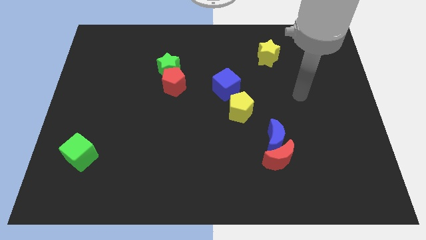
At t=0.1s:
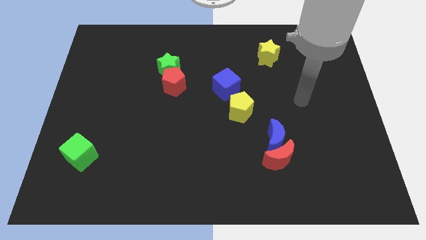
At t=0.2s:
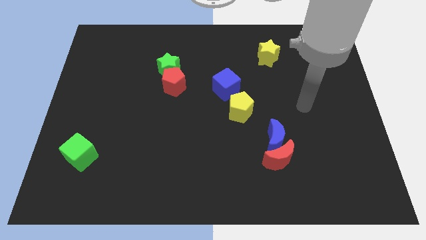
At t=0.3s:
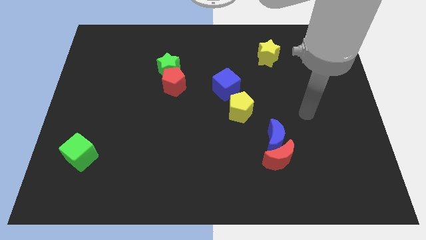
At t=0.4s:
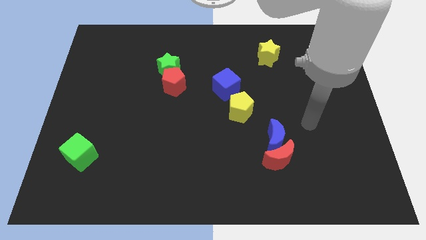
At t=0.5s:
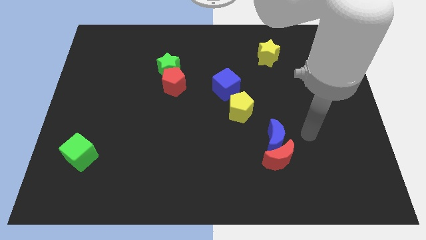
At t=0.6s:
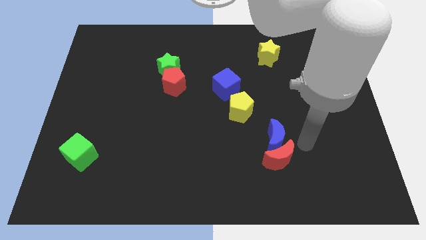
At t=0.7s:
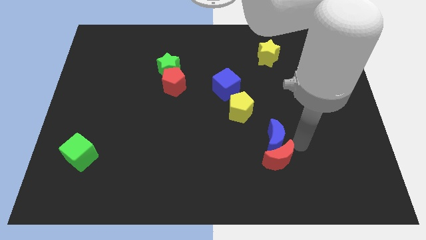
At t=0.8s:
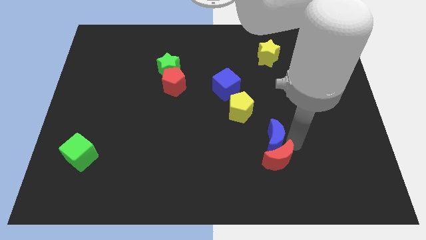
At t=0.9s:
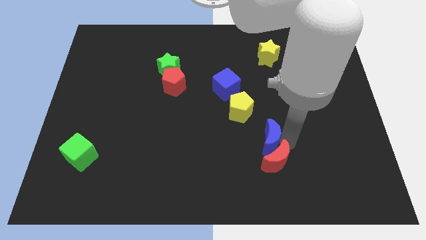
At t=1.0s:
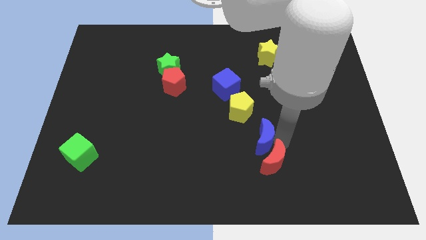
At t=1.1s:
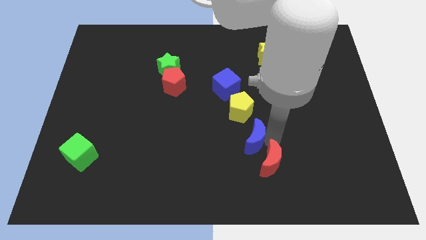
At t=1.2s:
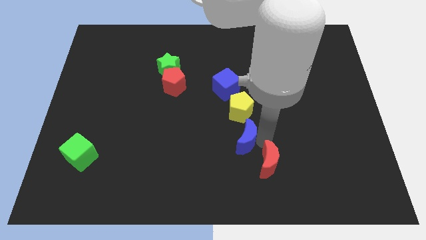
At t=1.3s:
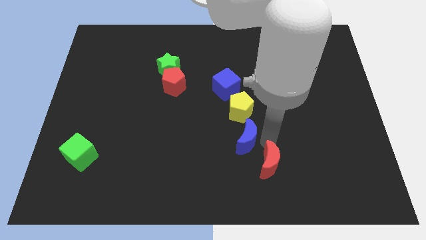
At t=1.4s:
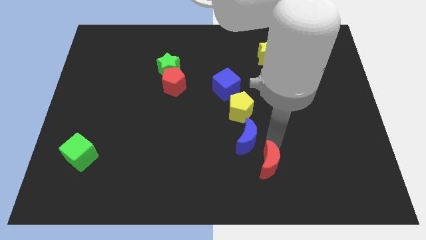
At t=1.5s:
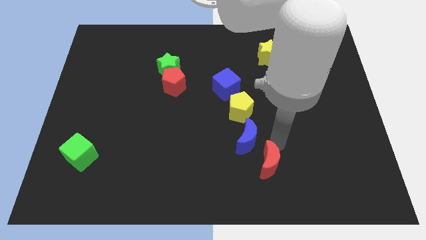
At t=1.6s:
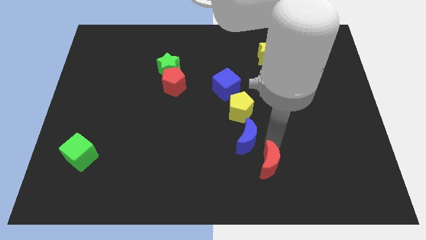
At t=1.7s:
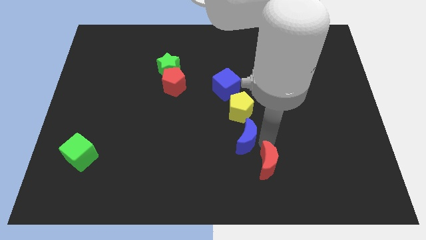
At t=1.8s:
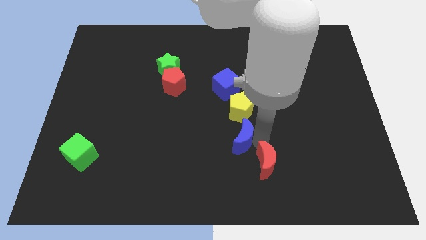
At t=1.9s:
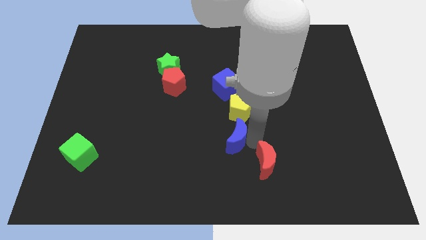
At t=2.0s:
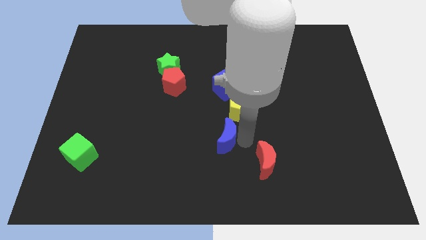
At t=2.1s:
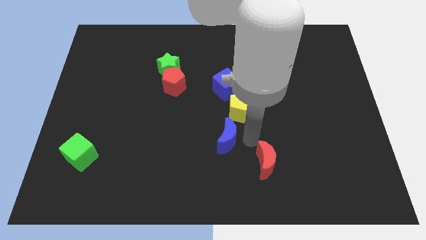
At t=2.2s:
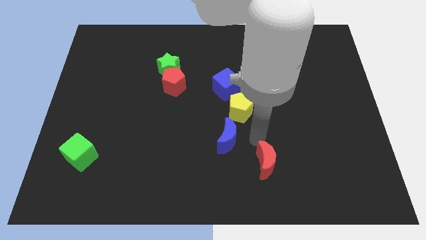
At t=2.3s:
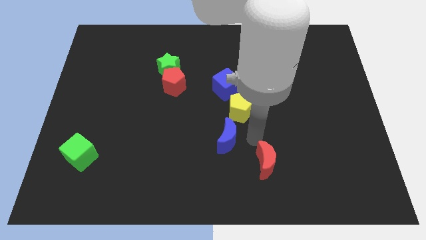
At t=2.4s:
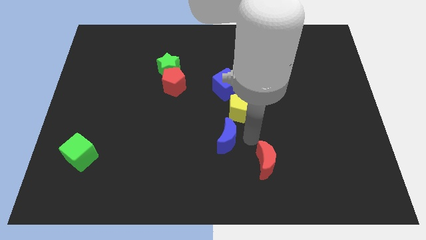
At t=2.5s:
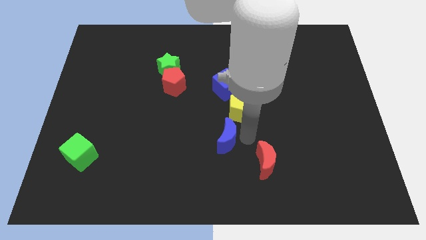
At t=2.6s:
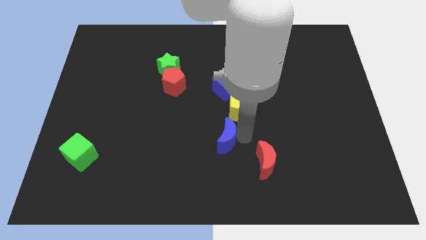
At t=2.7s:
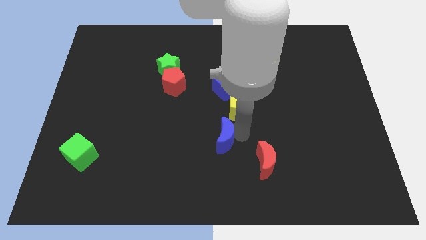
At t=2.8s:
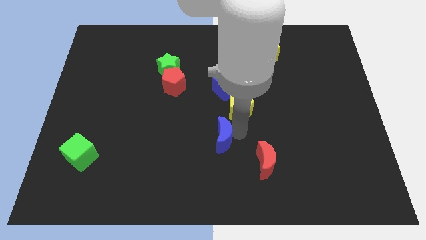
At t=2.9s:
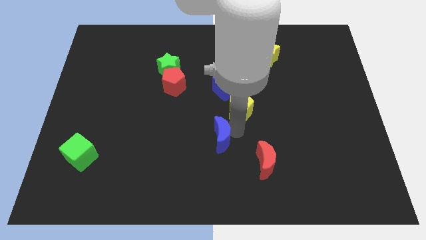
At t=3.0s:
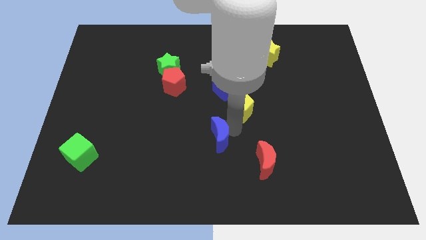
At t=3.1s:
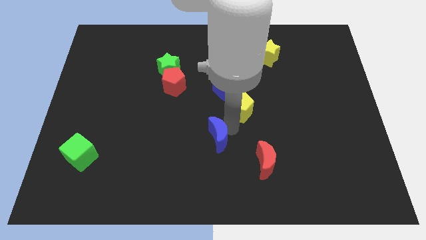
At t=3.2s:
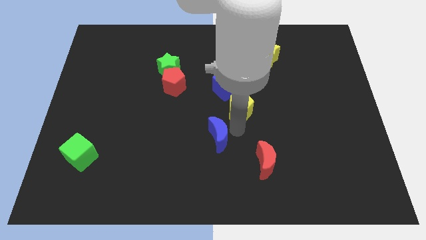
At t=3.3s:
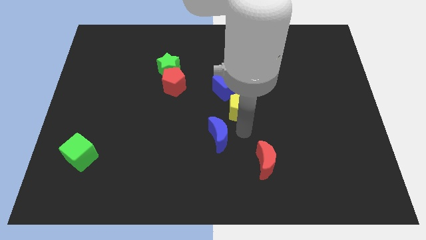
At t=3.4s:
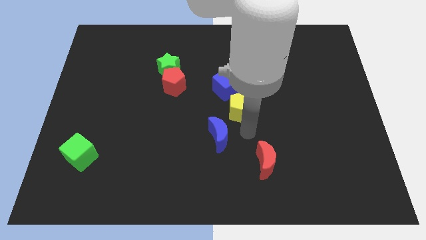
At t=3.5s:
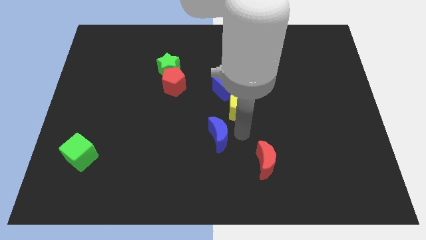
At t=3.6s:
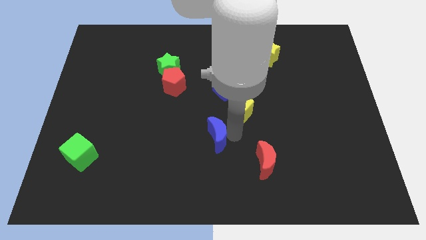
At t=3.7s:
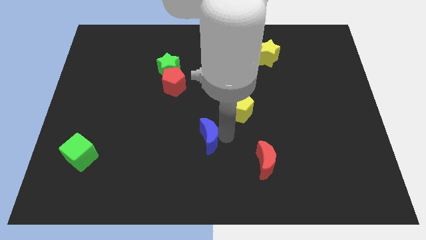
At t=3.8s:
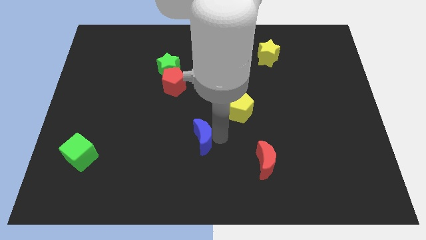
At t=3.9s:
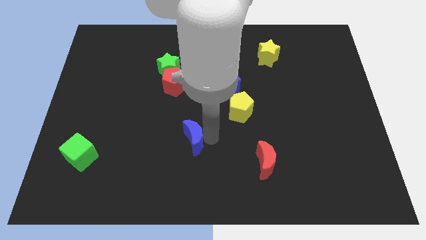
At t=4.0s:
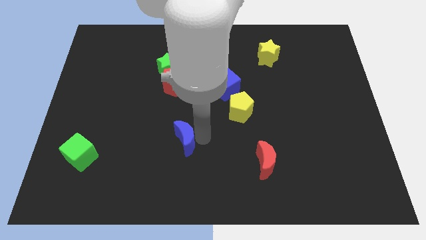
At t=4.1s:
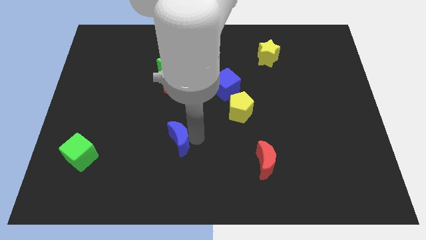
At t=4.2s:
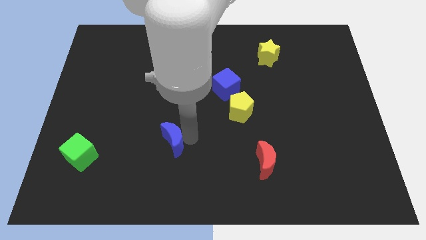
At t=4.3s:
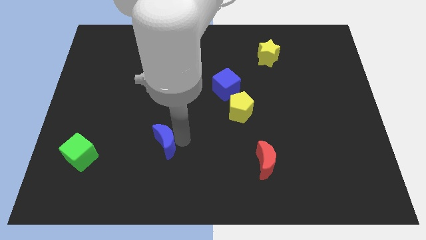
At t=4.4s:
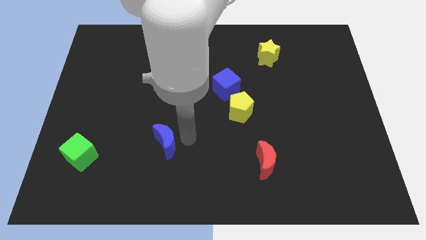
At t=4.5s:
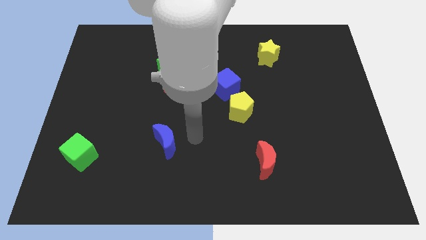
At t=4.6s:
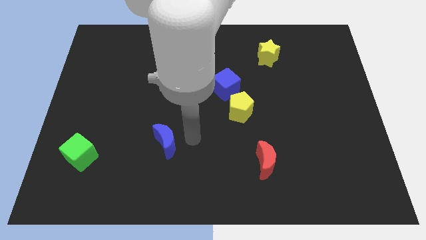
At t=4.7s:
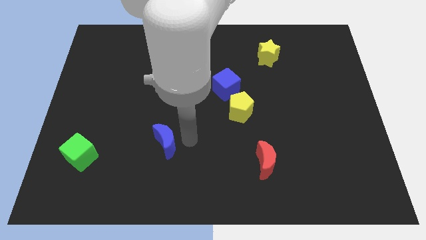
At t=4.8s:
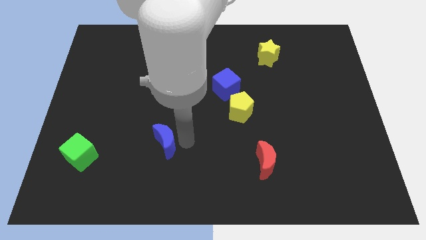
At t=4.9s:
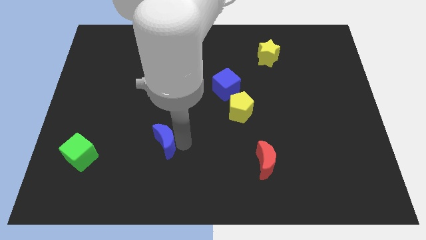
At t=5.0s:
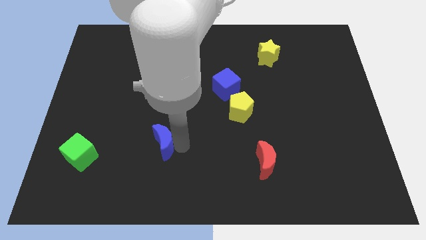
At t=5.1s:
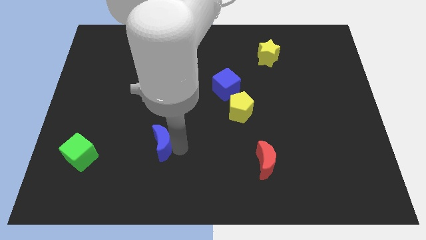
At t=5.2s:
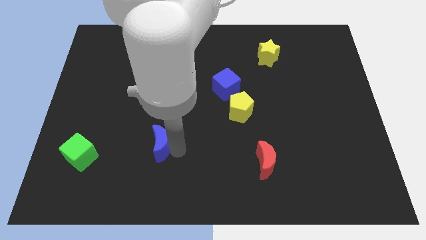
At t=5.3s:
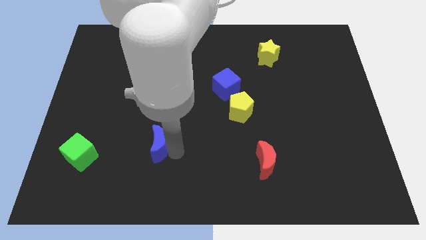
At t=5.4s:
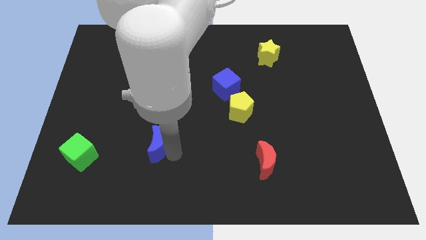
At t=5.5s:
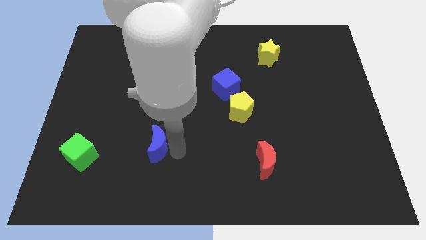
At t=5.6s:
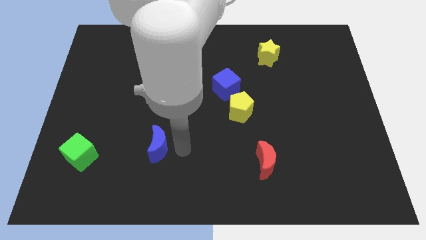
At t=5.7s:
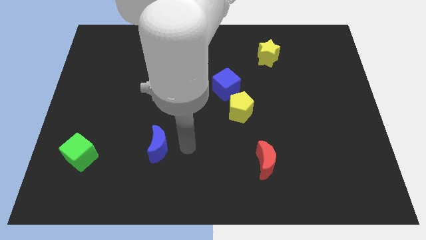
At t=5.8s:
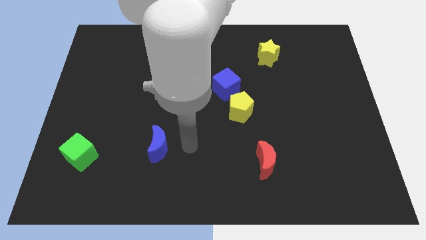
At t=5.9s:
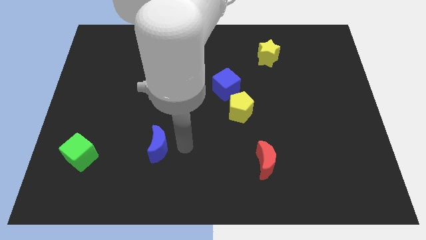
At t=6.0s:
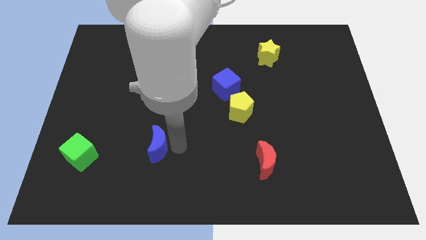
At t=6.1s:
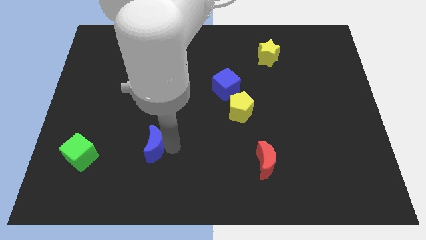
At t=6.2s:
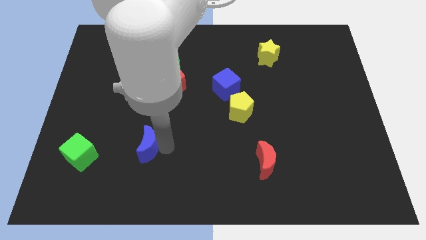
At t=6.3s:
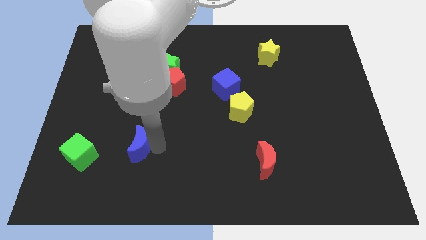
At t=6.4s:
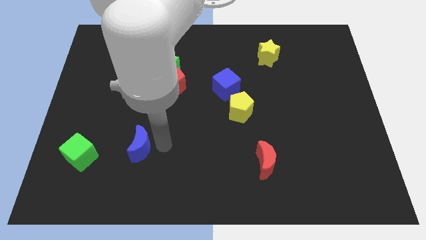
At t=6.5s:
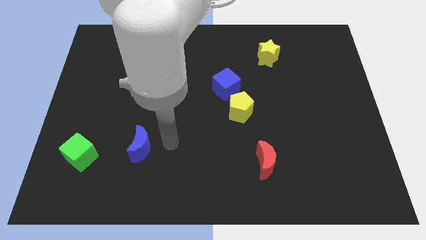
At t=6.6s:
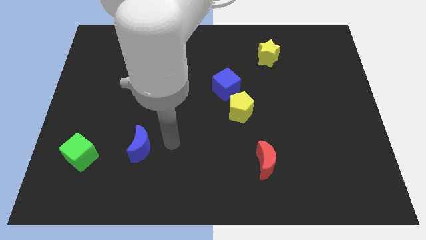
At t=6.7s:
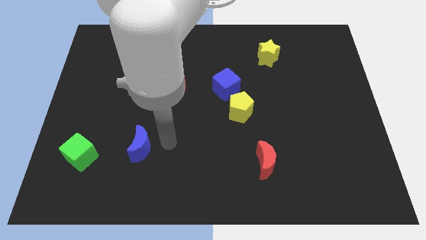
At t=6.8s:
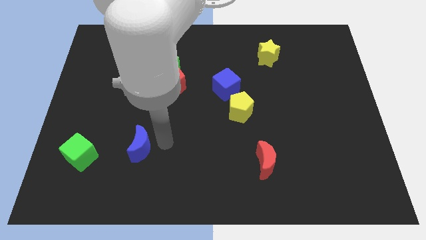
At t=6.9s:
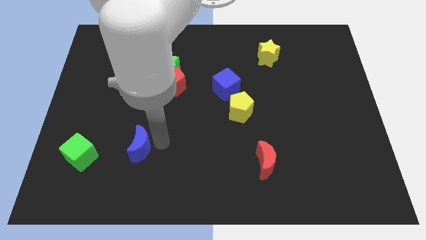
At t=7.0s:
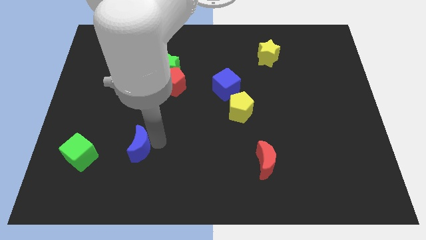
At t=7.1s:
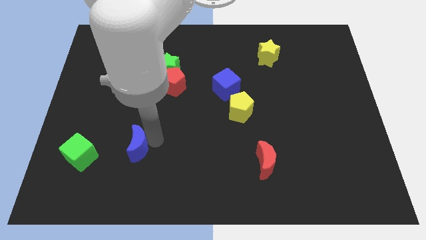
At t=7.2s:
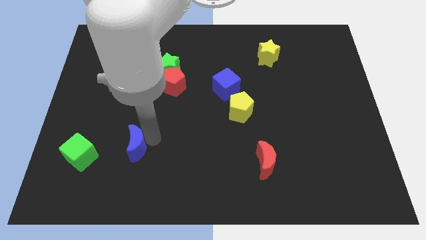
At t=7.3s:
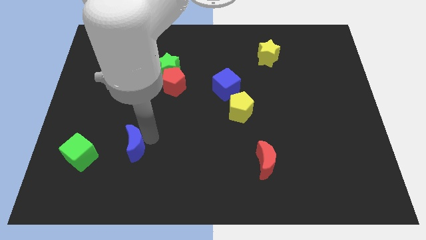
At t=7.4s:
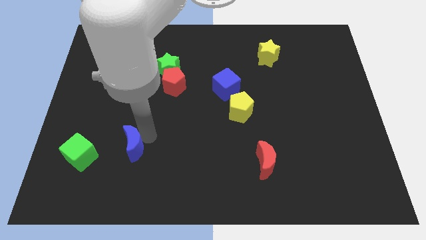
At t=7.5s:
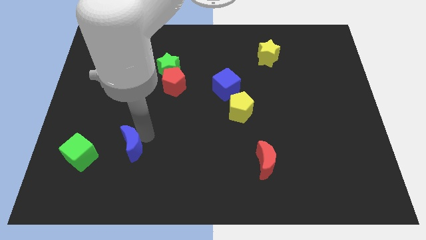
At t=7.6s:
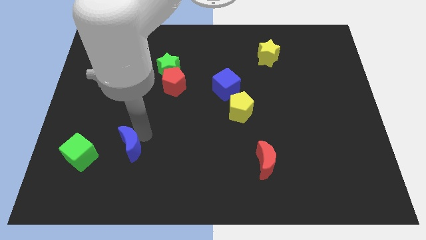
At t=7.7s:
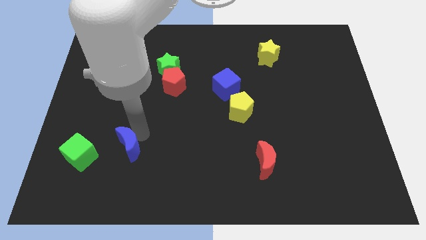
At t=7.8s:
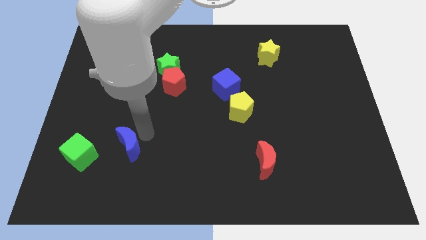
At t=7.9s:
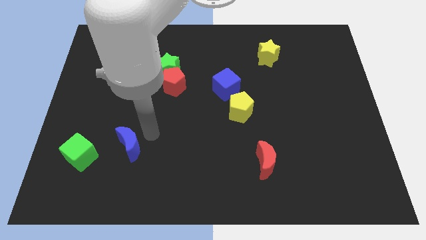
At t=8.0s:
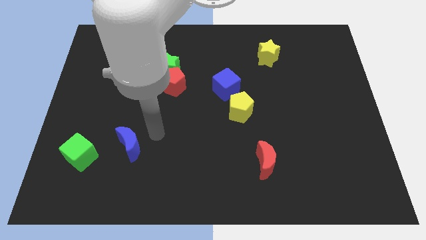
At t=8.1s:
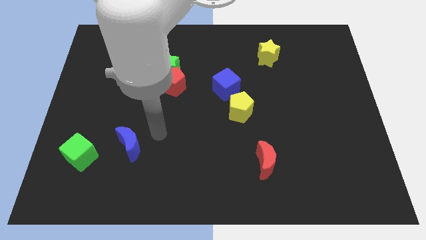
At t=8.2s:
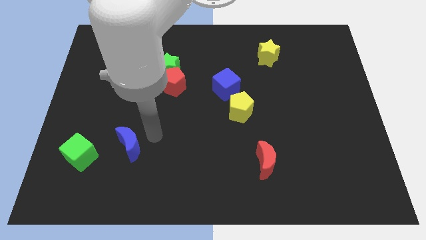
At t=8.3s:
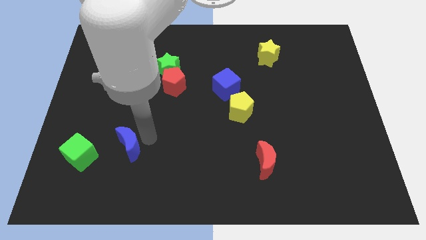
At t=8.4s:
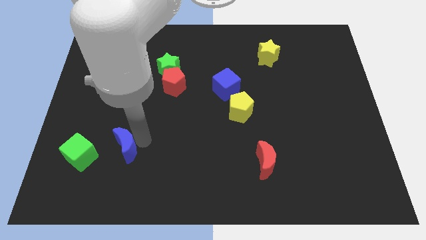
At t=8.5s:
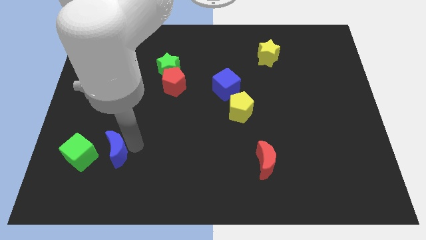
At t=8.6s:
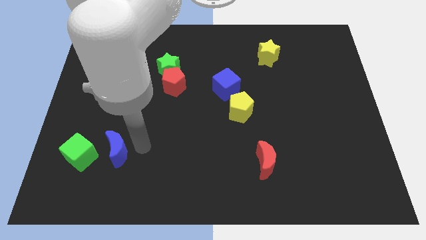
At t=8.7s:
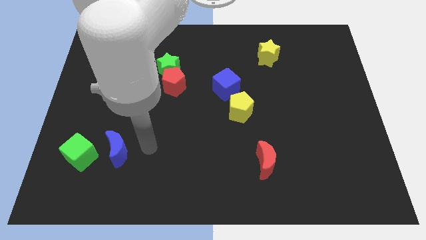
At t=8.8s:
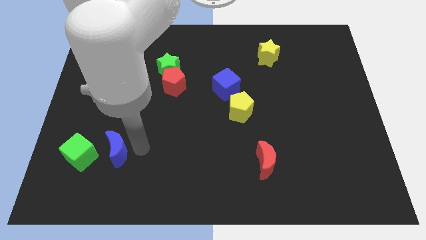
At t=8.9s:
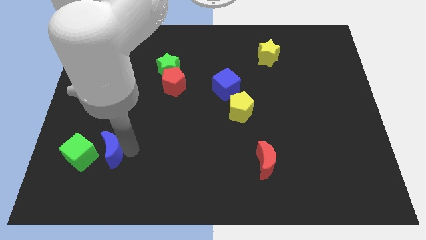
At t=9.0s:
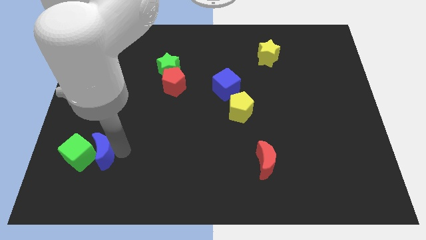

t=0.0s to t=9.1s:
slide the blue moon to the green cube
